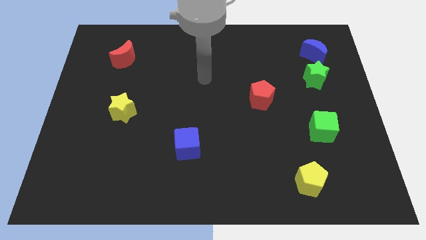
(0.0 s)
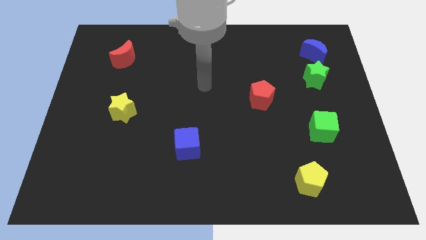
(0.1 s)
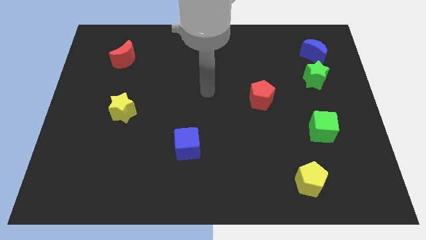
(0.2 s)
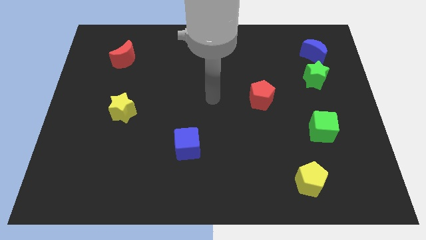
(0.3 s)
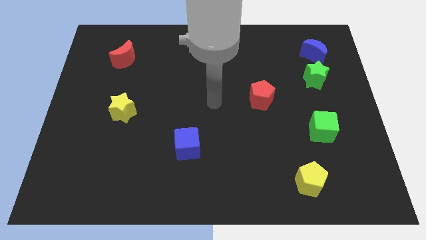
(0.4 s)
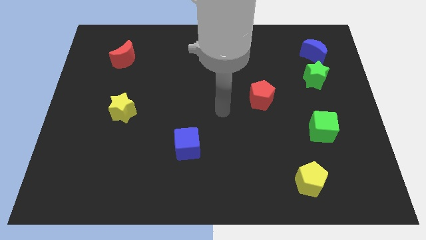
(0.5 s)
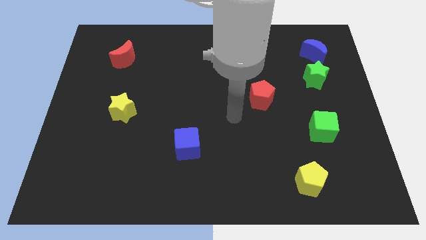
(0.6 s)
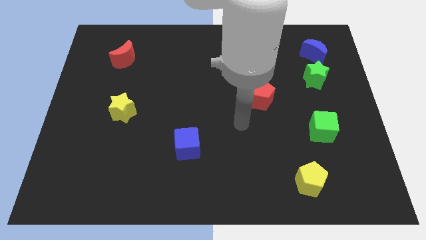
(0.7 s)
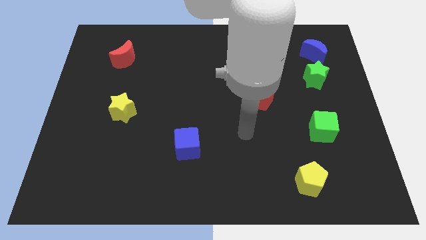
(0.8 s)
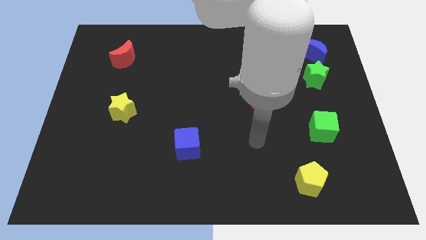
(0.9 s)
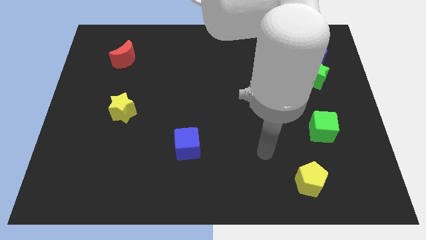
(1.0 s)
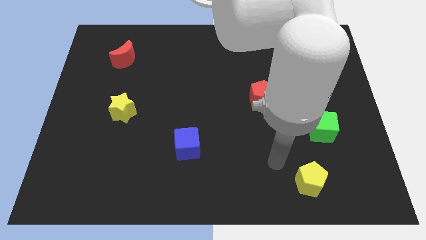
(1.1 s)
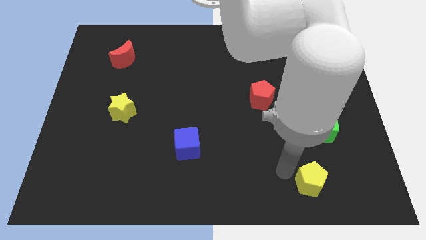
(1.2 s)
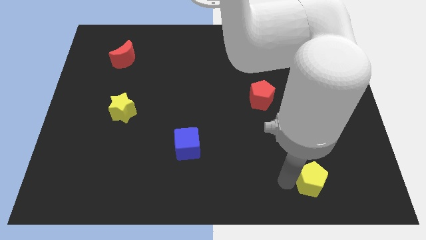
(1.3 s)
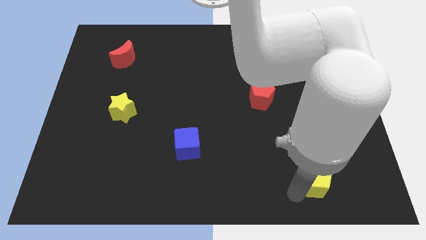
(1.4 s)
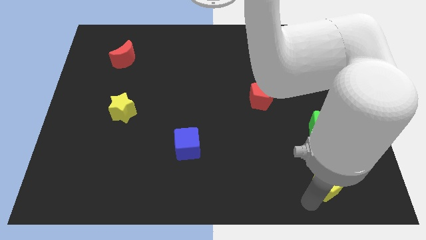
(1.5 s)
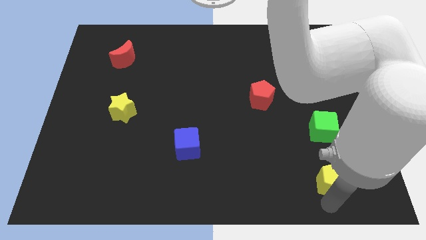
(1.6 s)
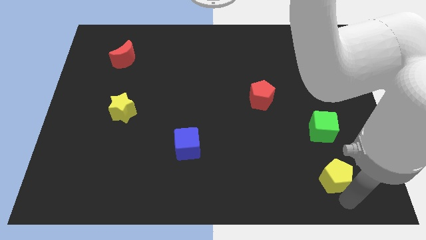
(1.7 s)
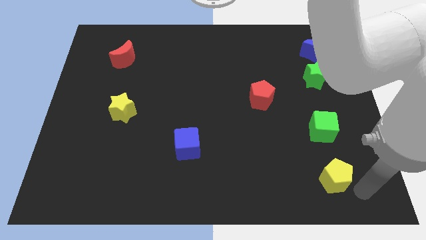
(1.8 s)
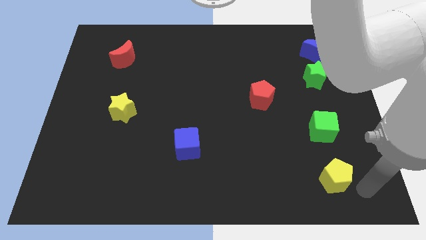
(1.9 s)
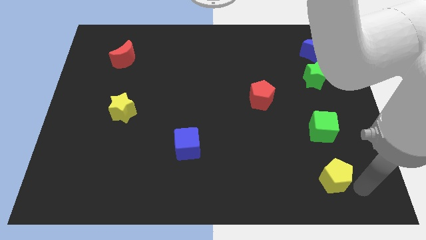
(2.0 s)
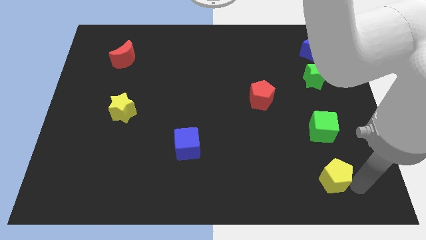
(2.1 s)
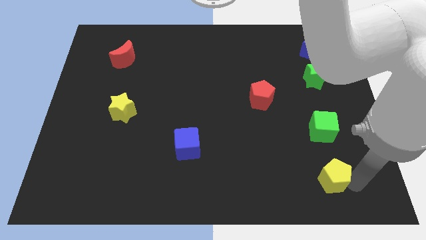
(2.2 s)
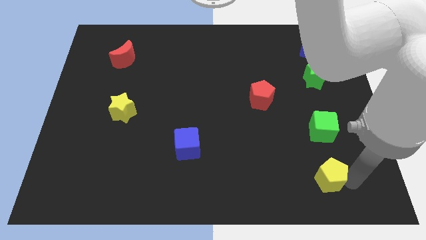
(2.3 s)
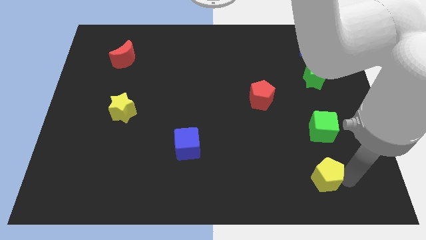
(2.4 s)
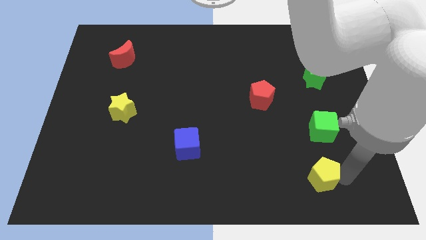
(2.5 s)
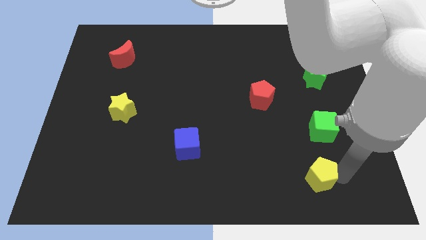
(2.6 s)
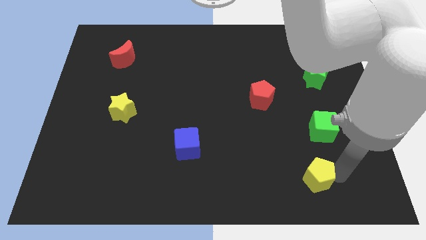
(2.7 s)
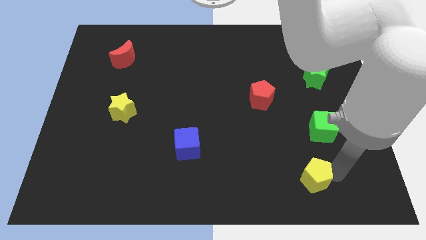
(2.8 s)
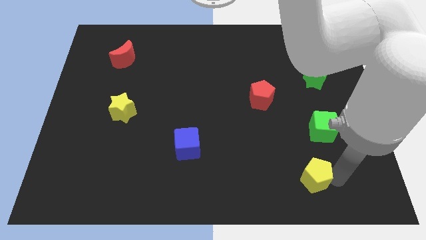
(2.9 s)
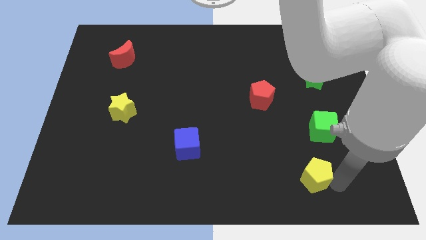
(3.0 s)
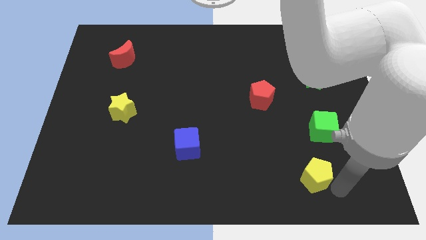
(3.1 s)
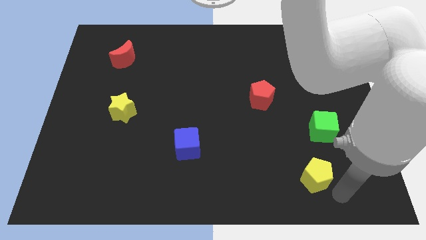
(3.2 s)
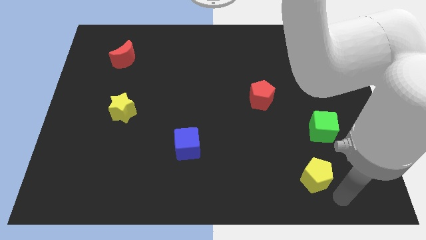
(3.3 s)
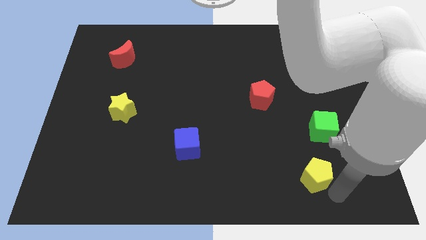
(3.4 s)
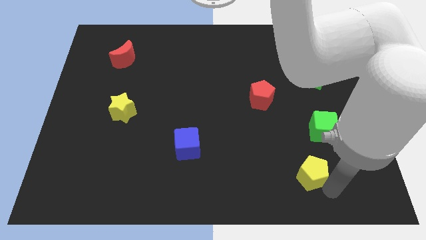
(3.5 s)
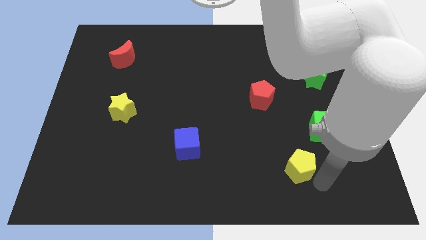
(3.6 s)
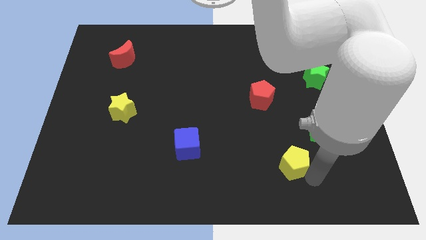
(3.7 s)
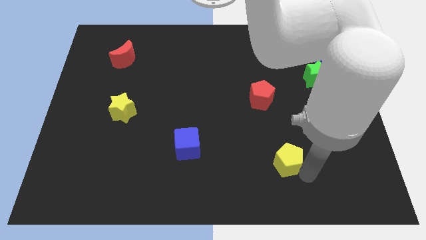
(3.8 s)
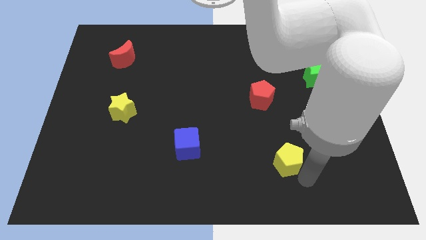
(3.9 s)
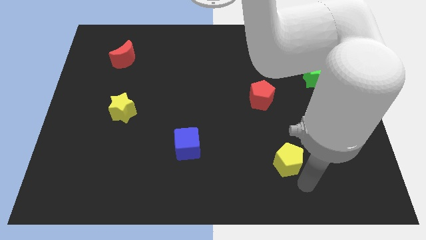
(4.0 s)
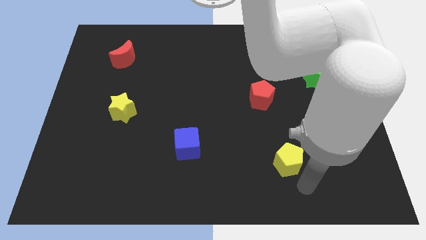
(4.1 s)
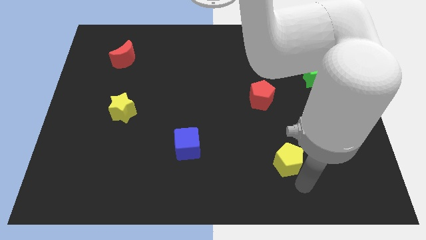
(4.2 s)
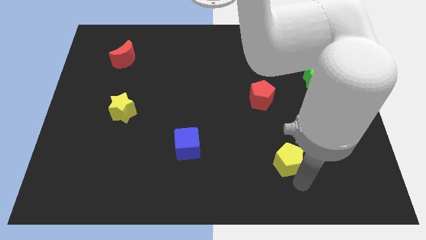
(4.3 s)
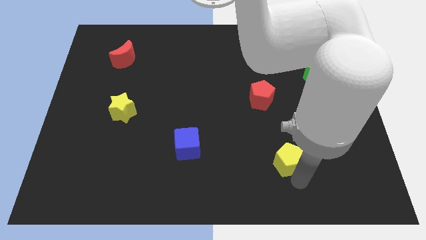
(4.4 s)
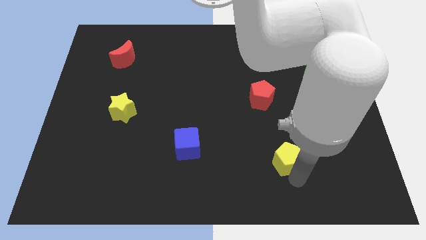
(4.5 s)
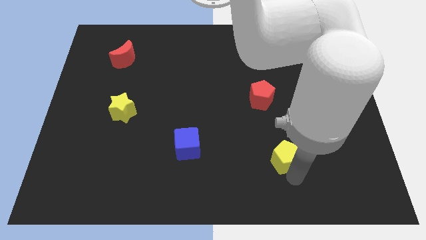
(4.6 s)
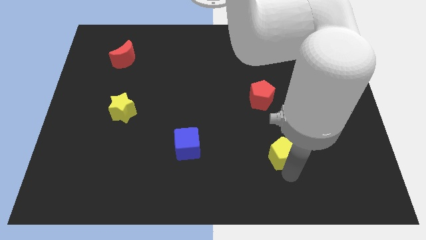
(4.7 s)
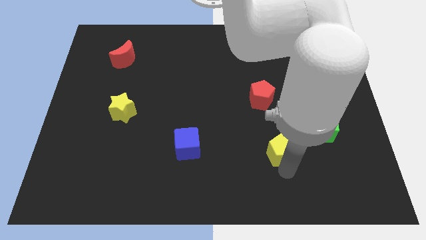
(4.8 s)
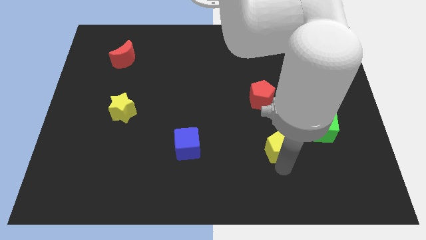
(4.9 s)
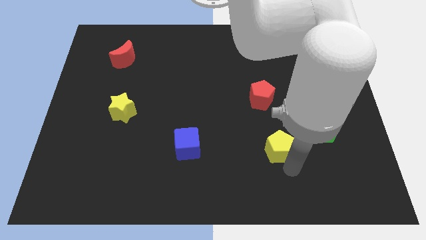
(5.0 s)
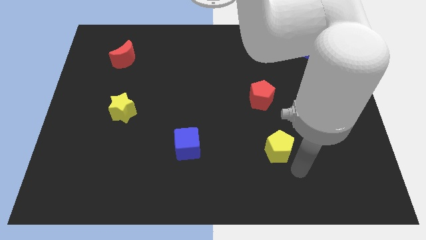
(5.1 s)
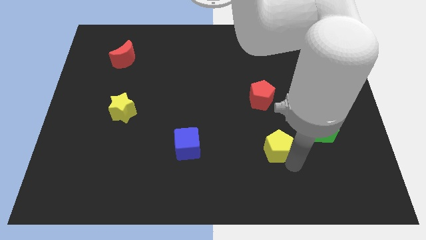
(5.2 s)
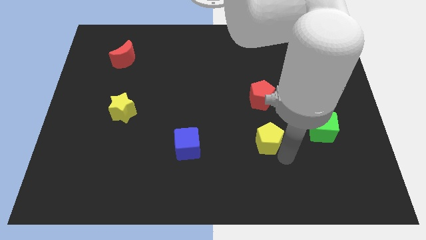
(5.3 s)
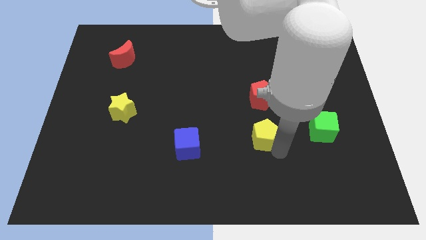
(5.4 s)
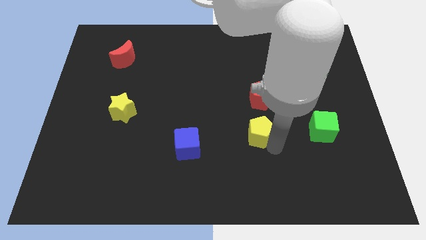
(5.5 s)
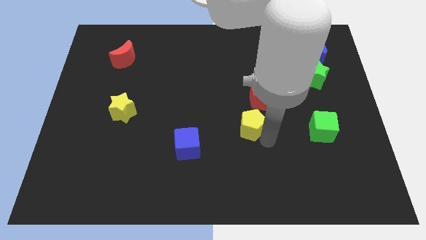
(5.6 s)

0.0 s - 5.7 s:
put the yellow pentagon to the middle

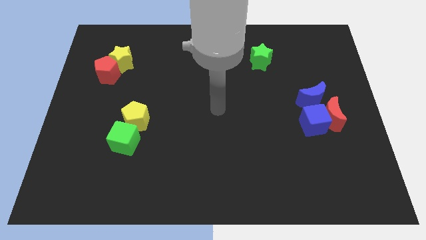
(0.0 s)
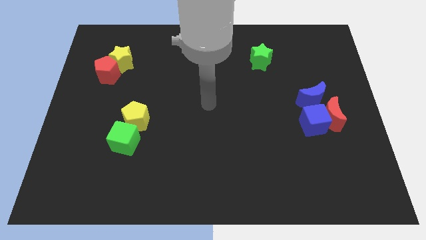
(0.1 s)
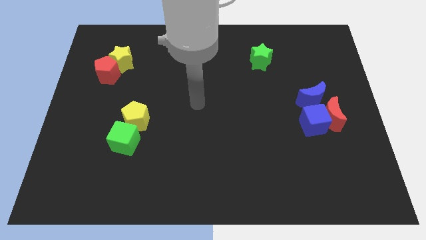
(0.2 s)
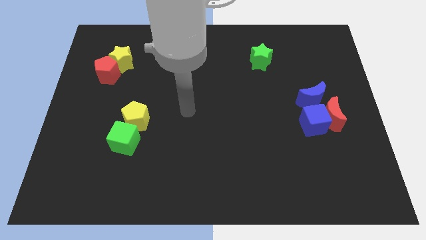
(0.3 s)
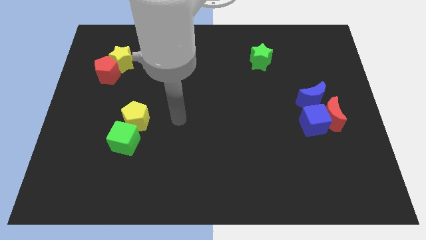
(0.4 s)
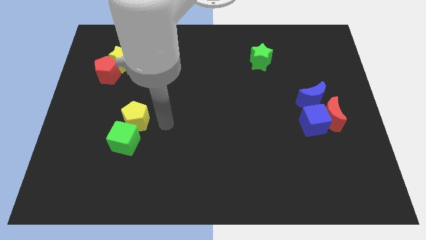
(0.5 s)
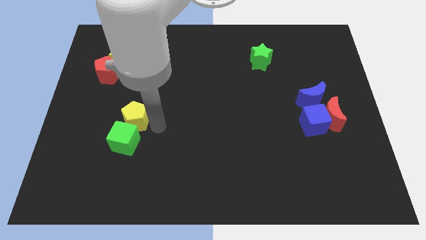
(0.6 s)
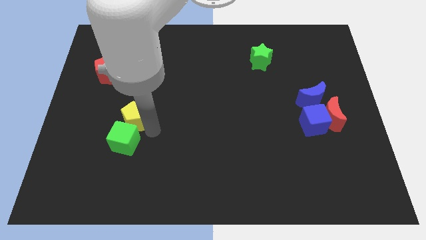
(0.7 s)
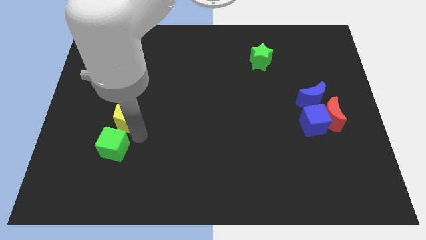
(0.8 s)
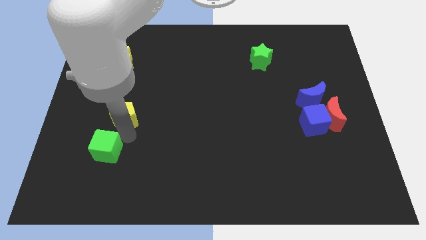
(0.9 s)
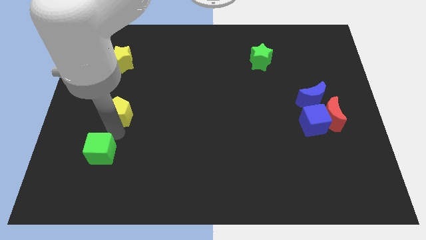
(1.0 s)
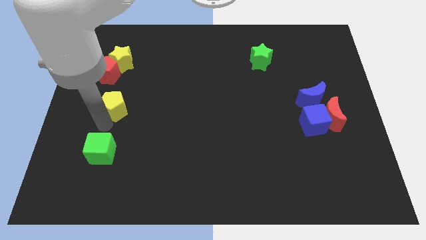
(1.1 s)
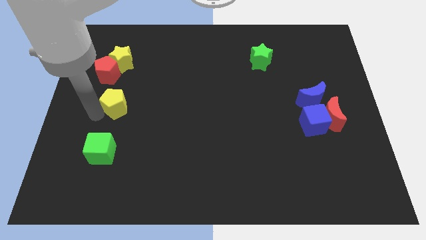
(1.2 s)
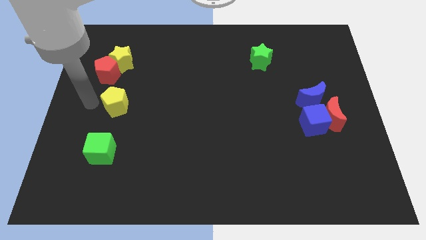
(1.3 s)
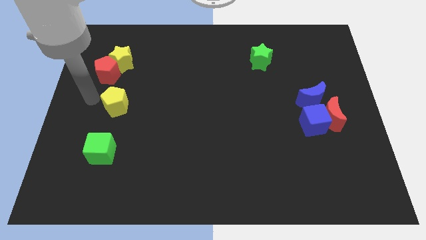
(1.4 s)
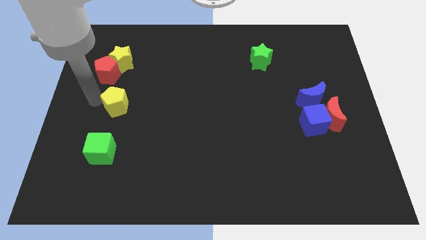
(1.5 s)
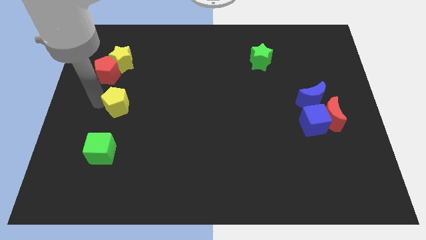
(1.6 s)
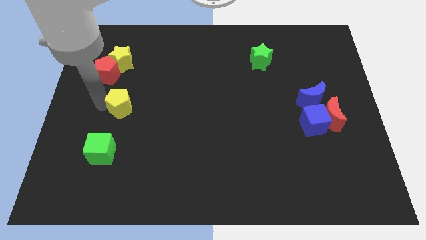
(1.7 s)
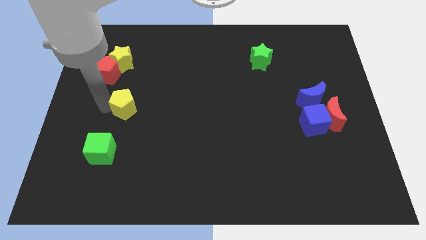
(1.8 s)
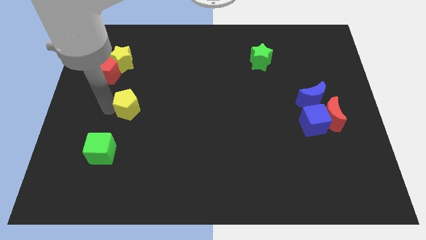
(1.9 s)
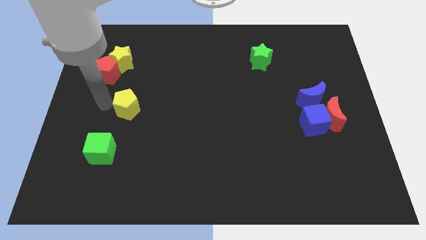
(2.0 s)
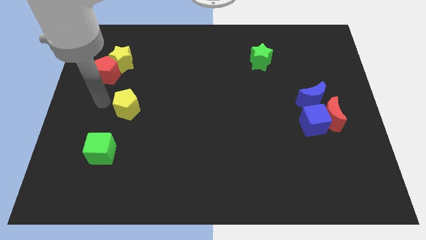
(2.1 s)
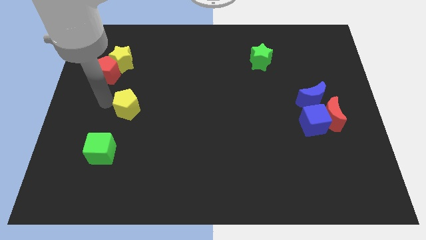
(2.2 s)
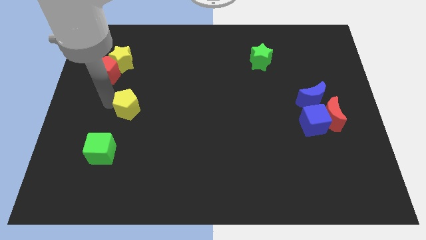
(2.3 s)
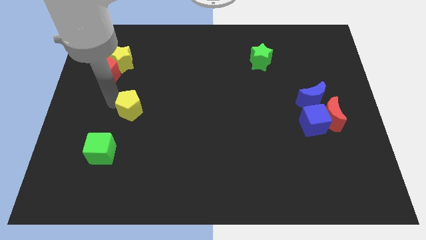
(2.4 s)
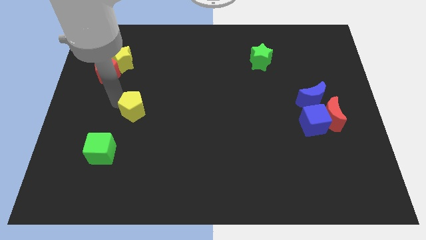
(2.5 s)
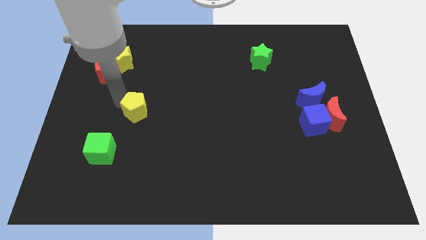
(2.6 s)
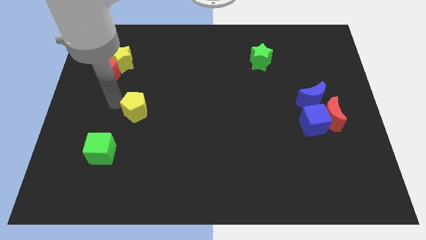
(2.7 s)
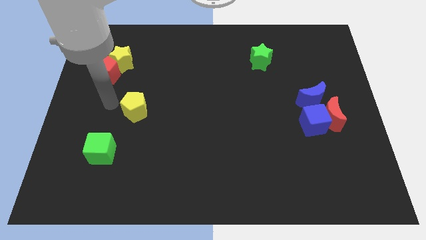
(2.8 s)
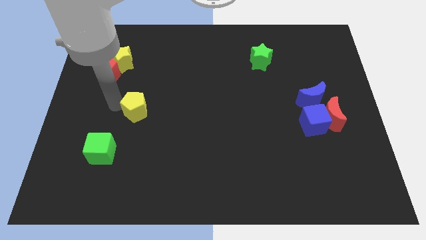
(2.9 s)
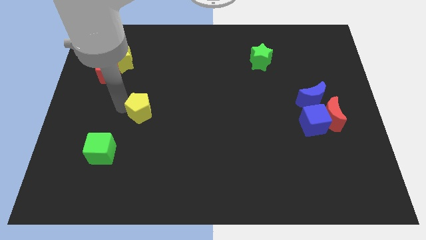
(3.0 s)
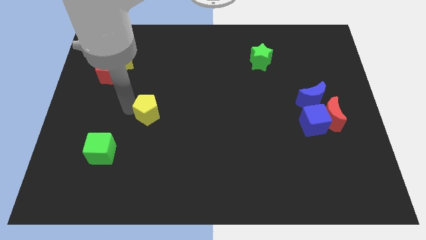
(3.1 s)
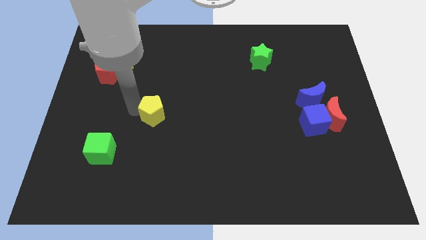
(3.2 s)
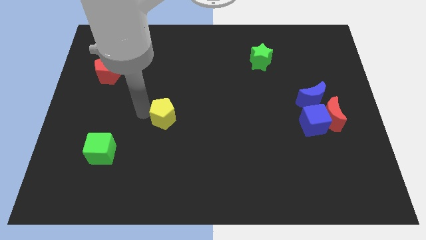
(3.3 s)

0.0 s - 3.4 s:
move the yellow pentagon to the center
